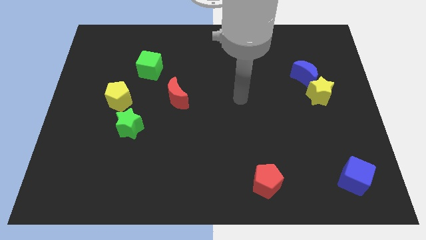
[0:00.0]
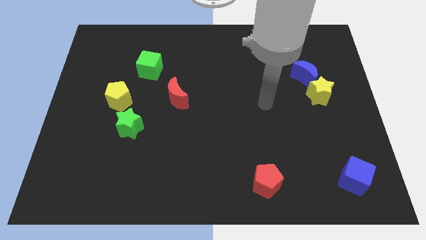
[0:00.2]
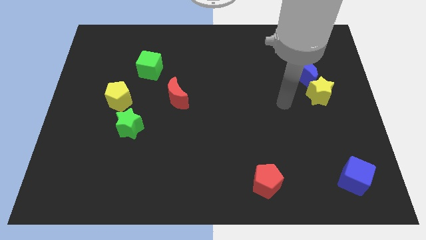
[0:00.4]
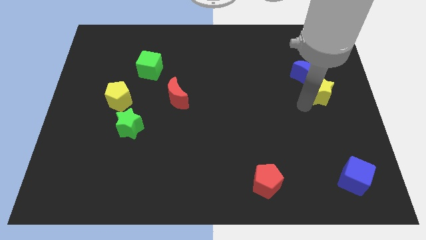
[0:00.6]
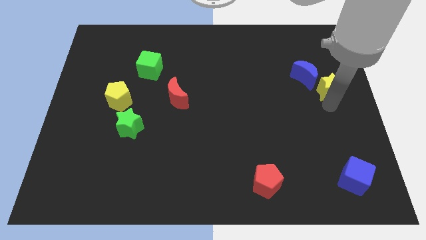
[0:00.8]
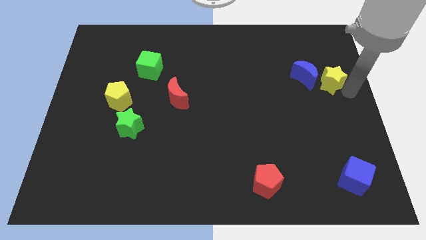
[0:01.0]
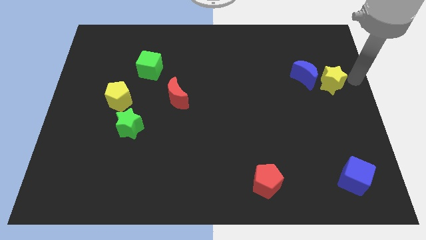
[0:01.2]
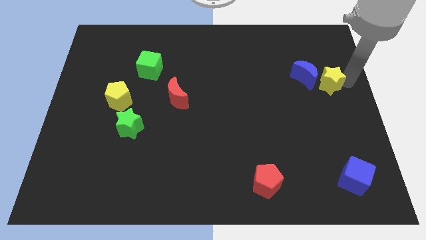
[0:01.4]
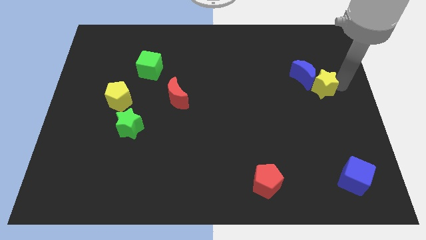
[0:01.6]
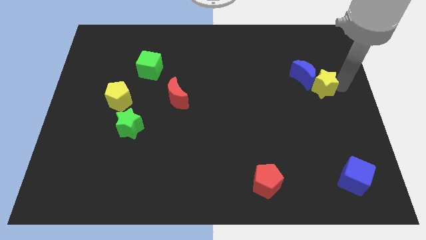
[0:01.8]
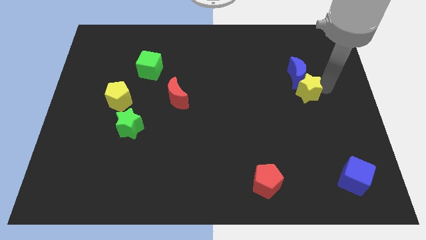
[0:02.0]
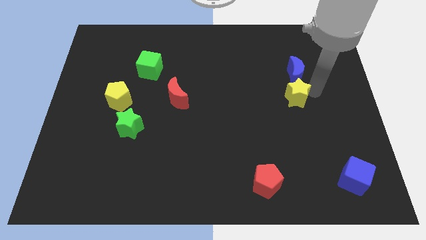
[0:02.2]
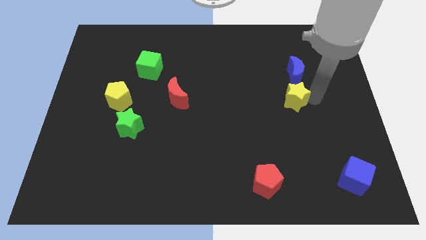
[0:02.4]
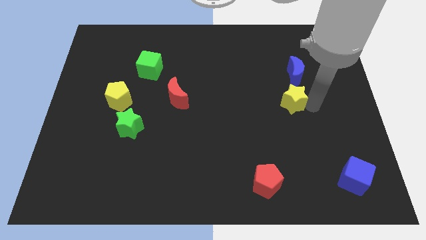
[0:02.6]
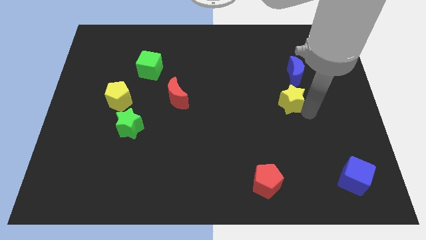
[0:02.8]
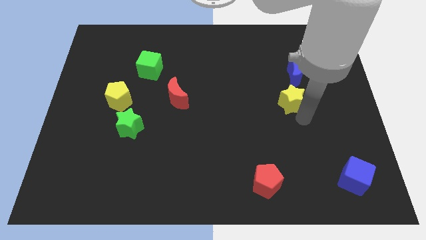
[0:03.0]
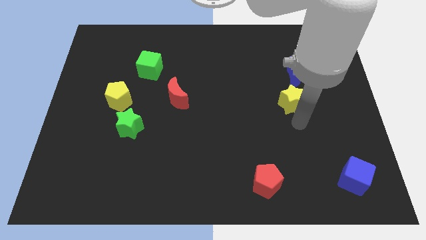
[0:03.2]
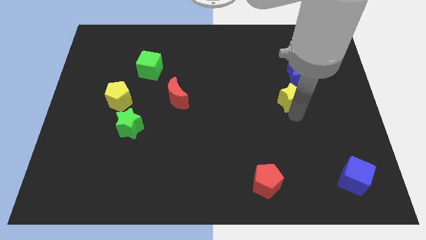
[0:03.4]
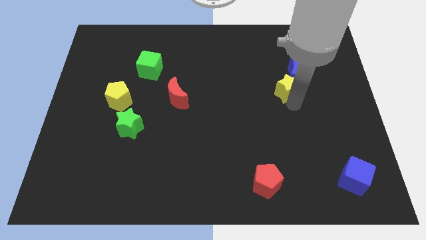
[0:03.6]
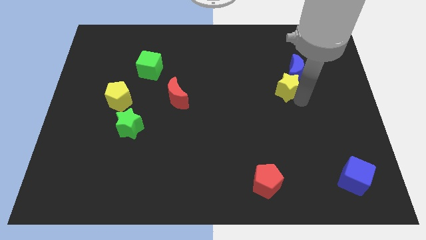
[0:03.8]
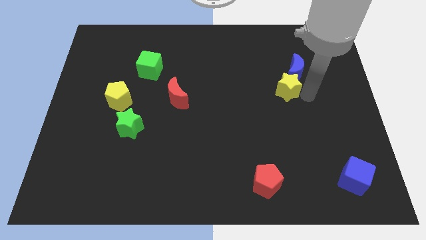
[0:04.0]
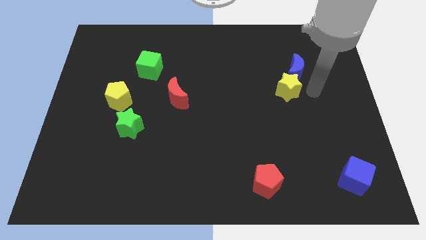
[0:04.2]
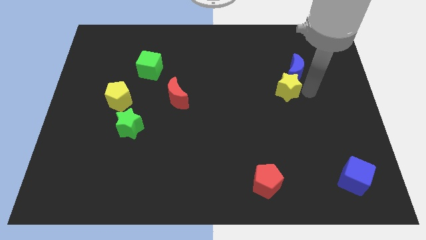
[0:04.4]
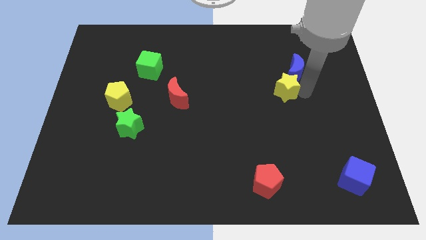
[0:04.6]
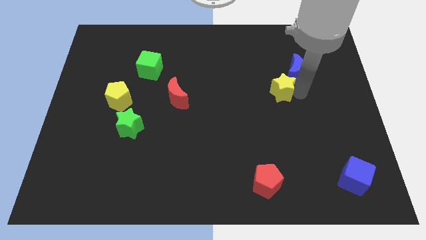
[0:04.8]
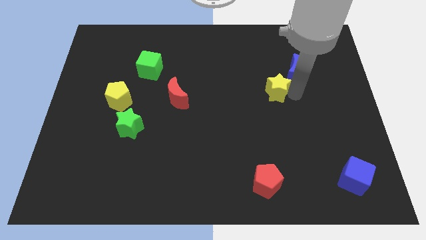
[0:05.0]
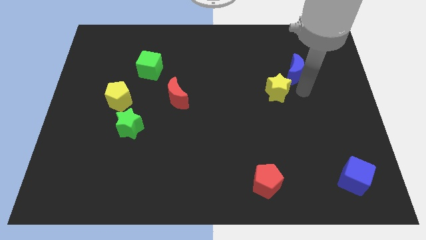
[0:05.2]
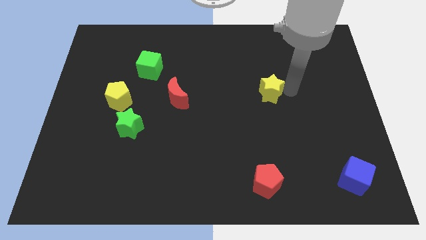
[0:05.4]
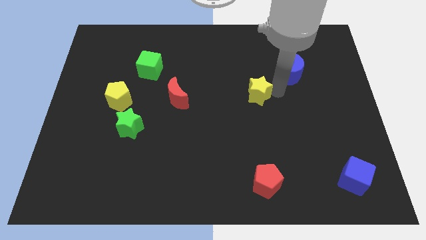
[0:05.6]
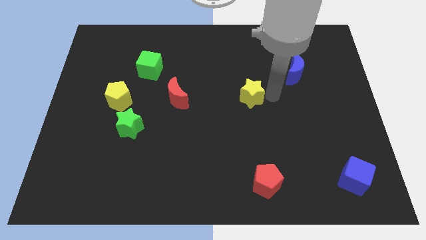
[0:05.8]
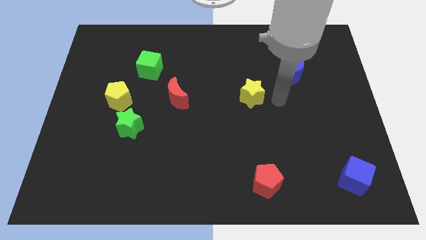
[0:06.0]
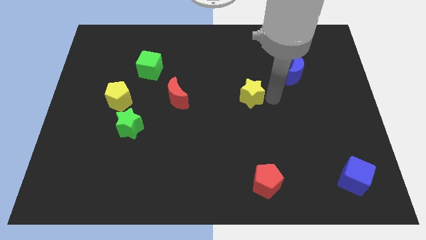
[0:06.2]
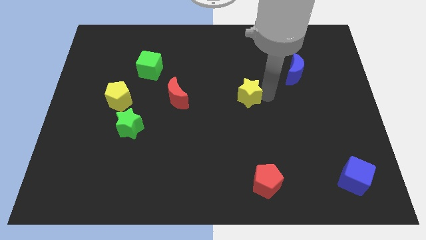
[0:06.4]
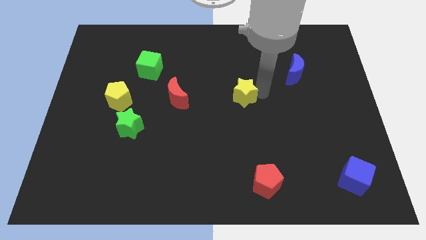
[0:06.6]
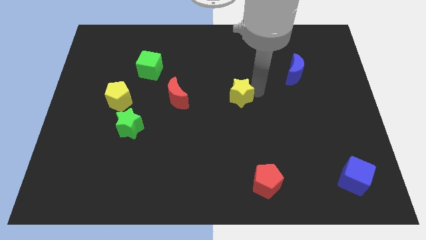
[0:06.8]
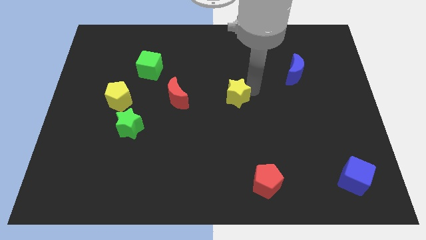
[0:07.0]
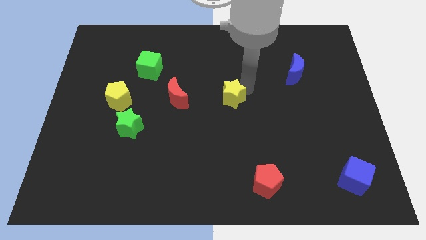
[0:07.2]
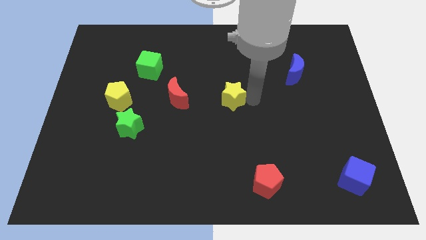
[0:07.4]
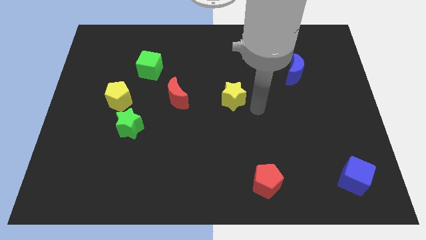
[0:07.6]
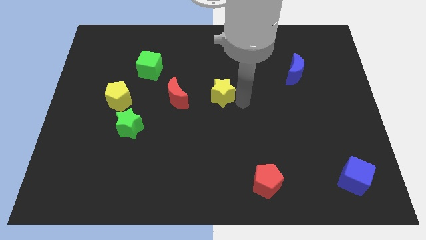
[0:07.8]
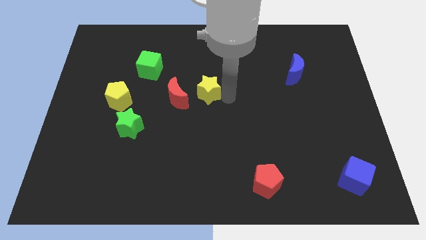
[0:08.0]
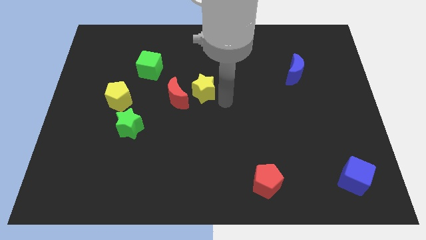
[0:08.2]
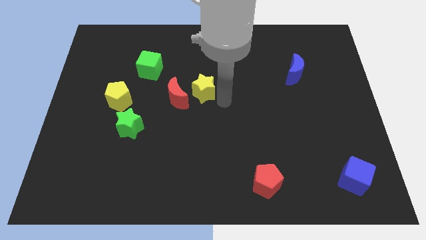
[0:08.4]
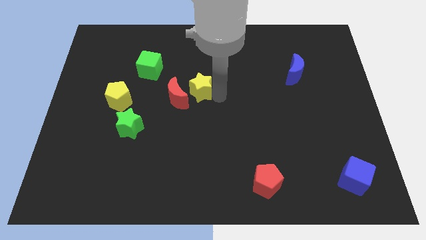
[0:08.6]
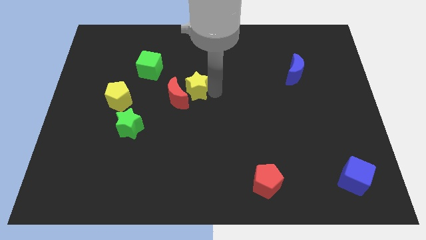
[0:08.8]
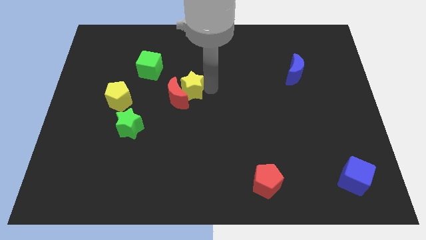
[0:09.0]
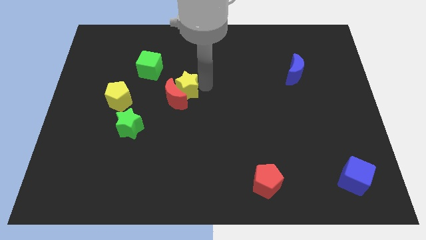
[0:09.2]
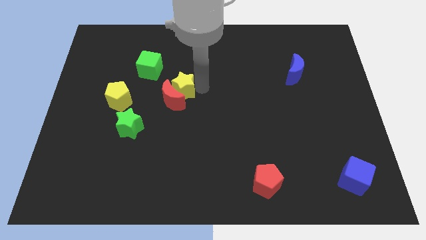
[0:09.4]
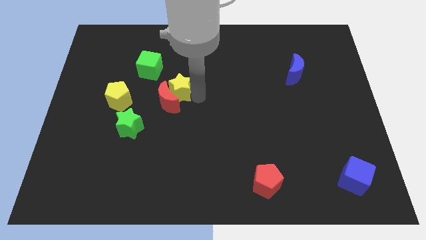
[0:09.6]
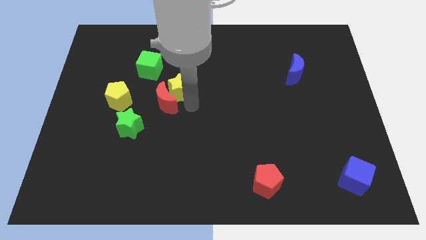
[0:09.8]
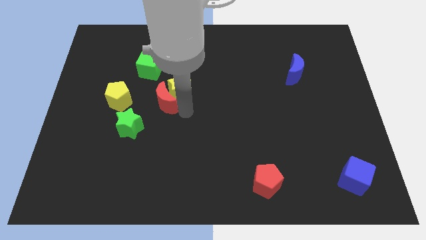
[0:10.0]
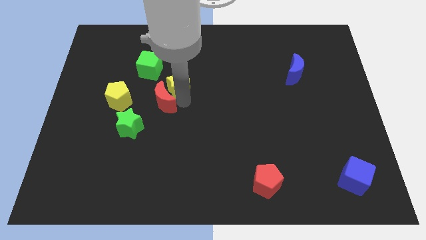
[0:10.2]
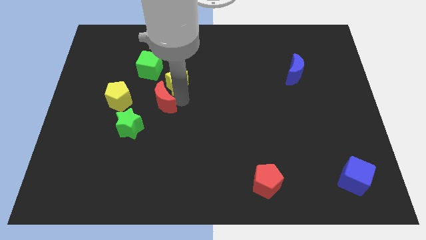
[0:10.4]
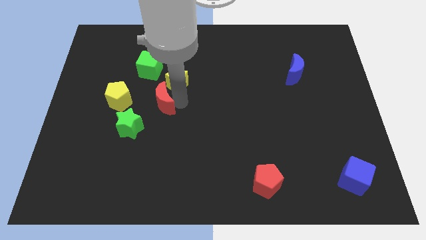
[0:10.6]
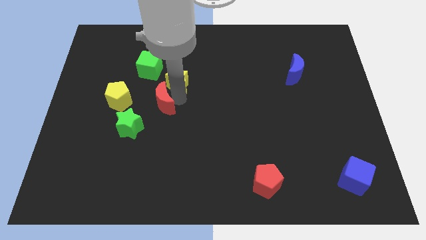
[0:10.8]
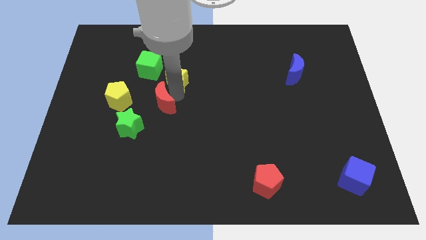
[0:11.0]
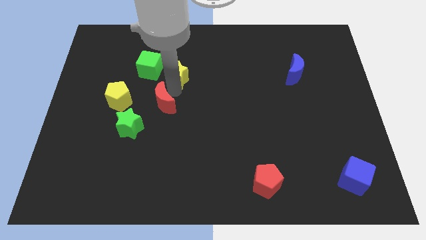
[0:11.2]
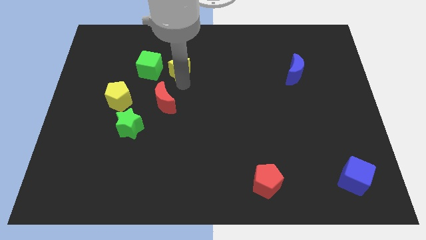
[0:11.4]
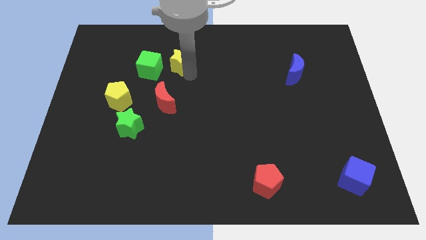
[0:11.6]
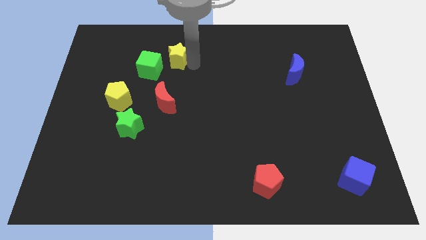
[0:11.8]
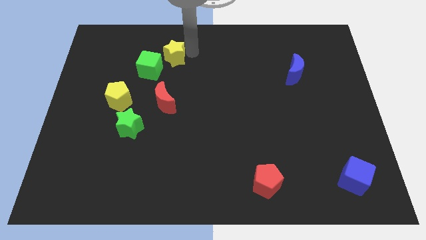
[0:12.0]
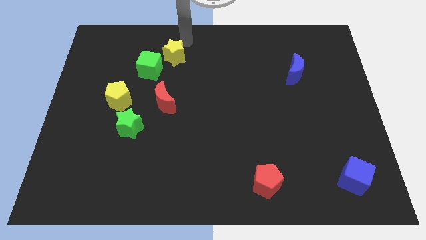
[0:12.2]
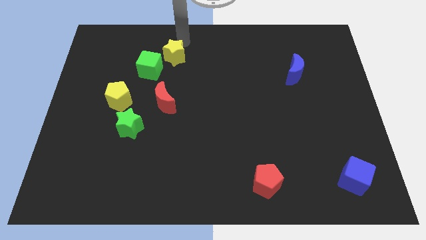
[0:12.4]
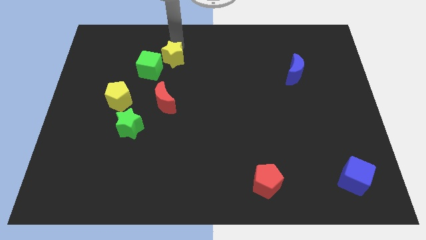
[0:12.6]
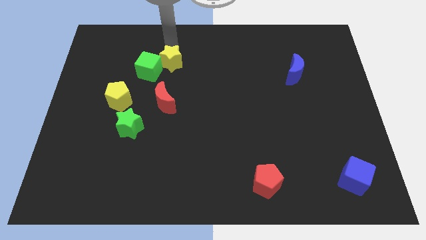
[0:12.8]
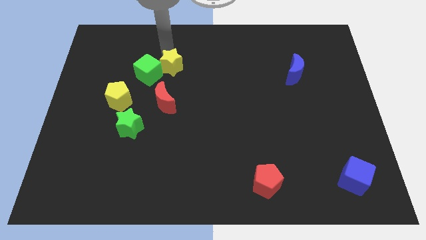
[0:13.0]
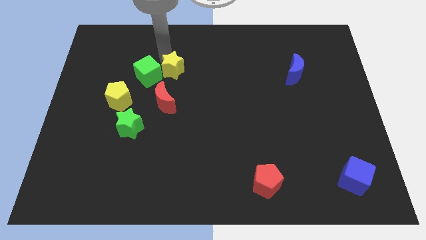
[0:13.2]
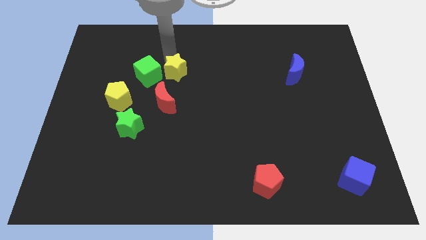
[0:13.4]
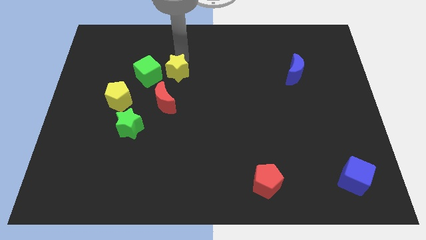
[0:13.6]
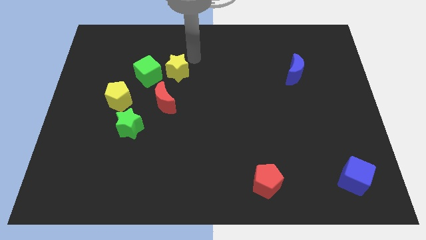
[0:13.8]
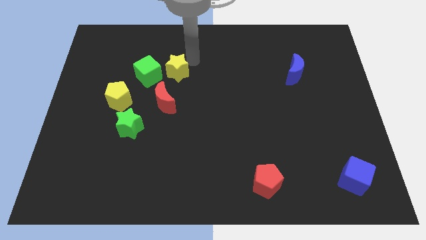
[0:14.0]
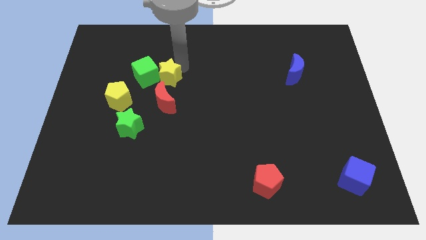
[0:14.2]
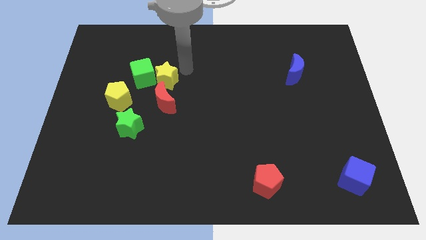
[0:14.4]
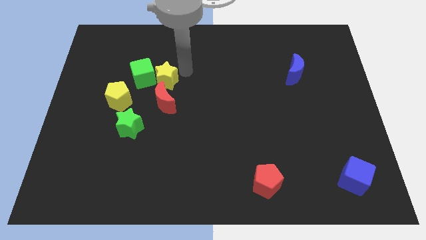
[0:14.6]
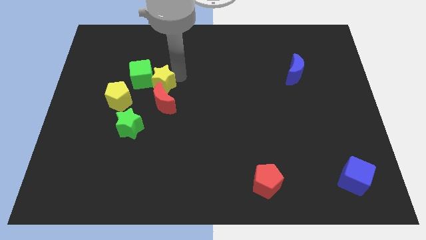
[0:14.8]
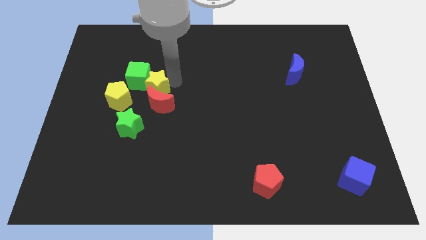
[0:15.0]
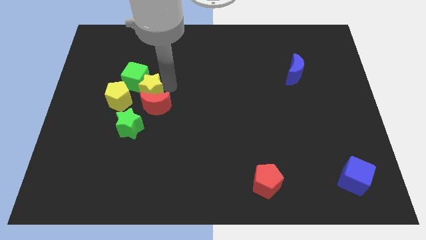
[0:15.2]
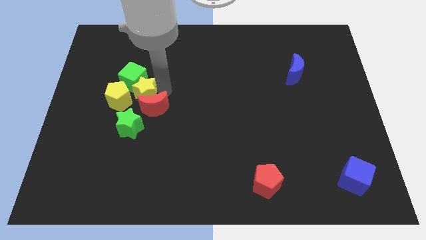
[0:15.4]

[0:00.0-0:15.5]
move the yellow star towards the yellow pentagon
